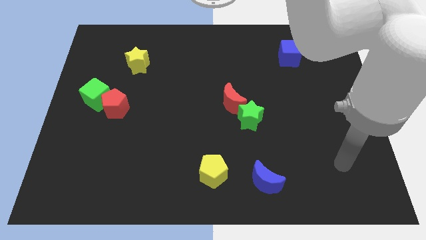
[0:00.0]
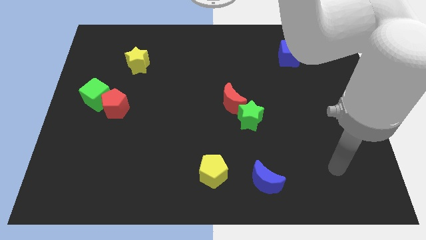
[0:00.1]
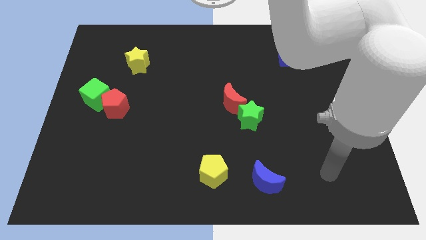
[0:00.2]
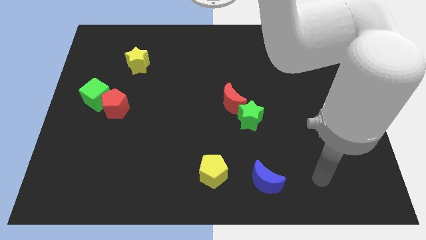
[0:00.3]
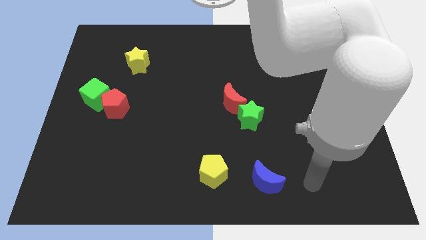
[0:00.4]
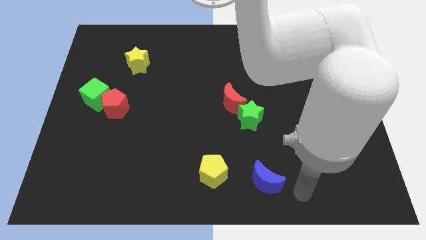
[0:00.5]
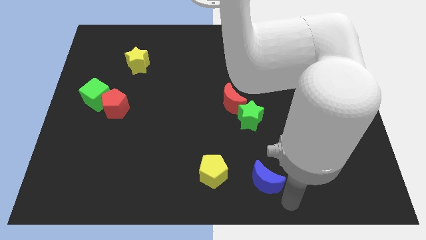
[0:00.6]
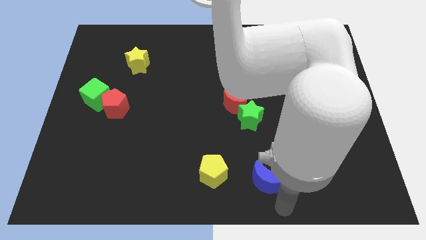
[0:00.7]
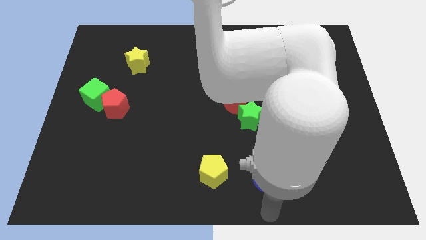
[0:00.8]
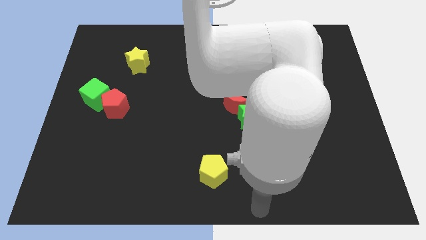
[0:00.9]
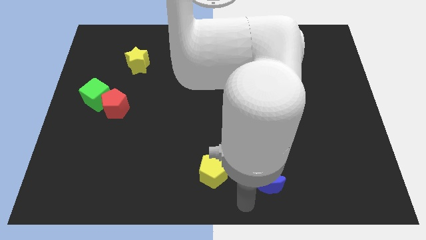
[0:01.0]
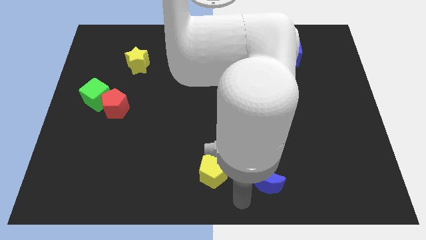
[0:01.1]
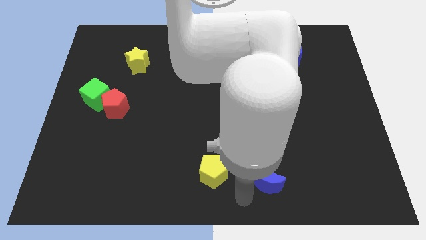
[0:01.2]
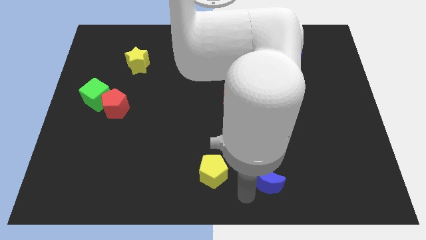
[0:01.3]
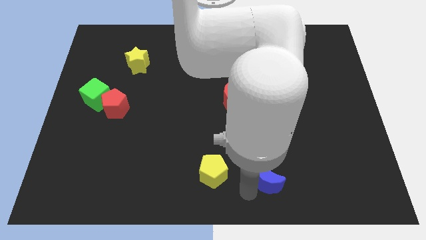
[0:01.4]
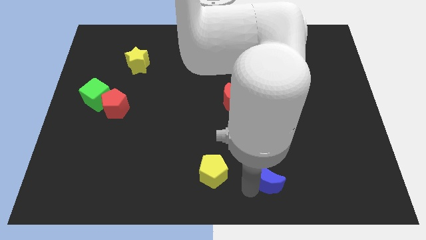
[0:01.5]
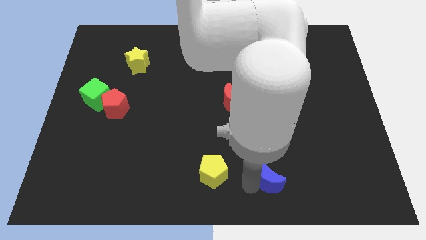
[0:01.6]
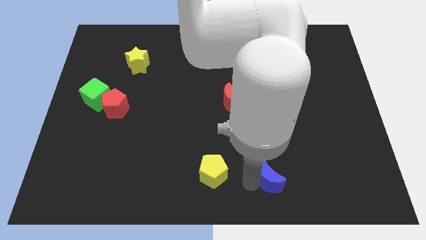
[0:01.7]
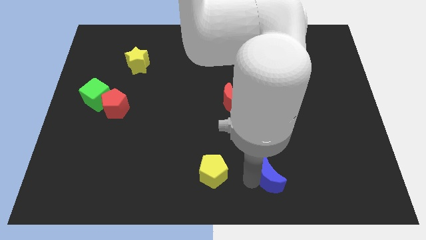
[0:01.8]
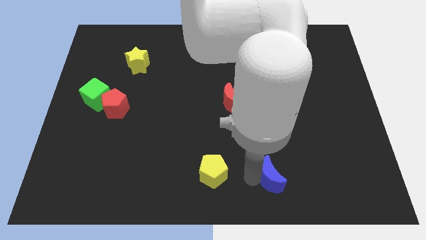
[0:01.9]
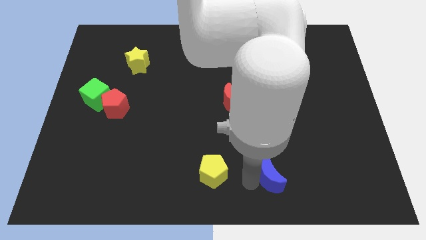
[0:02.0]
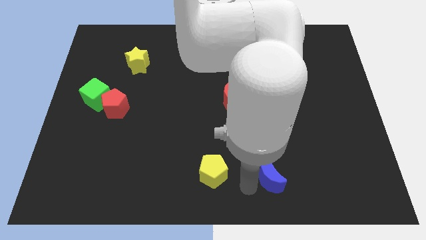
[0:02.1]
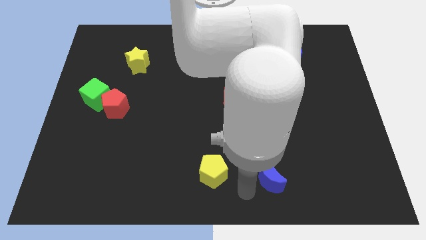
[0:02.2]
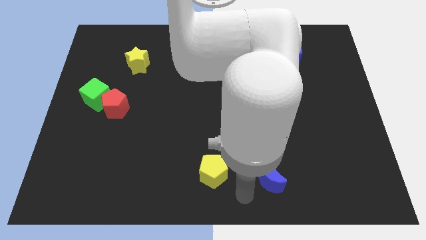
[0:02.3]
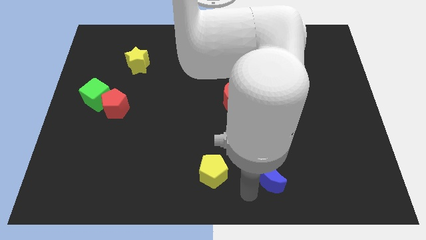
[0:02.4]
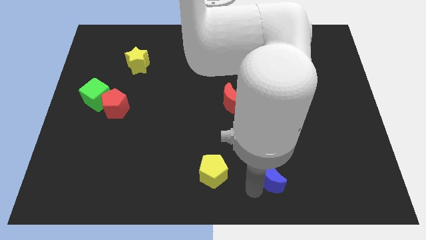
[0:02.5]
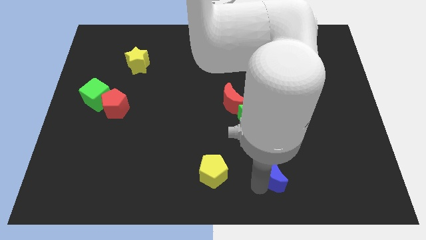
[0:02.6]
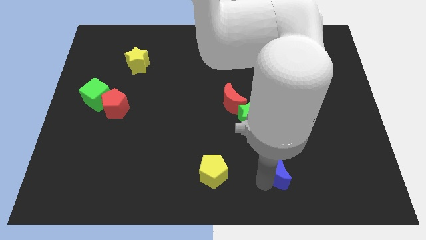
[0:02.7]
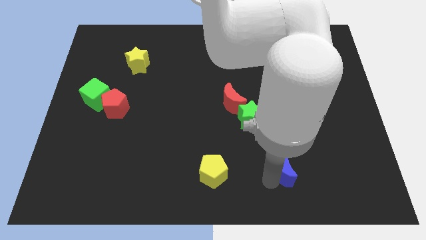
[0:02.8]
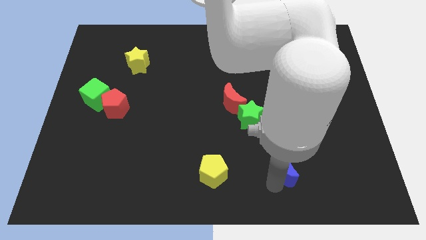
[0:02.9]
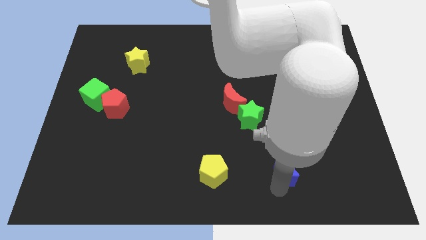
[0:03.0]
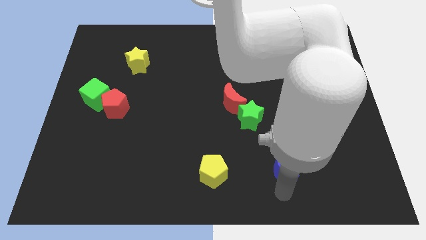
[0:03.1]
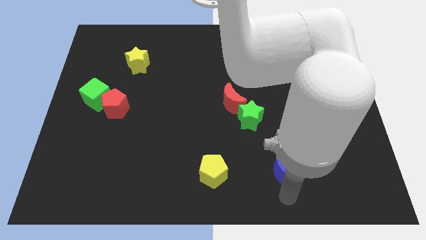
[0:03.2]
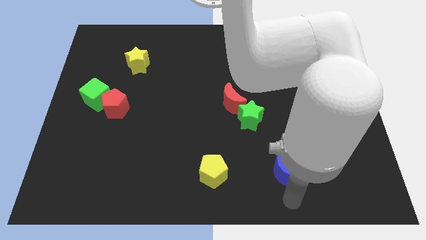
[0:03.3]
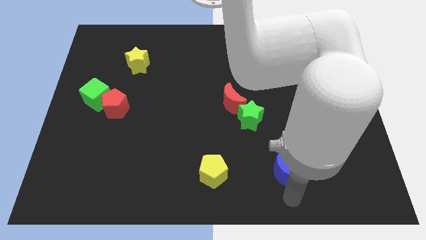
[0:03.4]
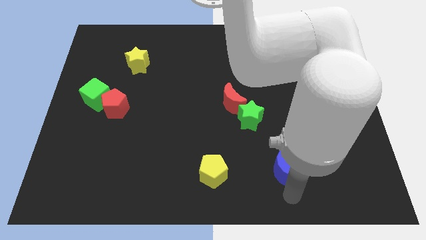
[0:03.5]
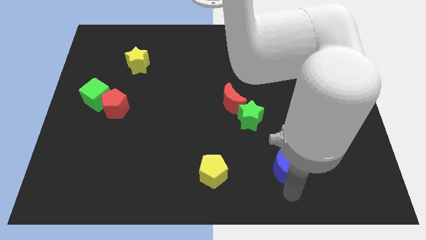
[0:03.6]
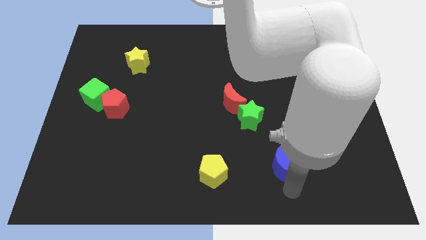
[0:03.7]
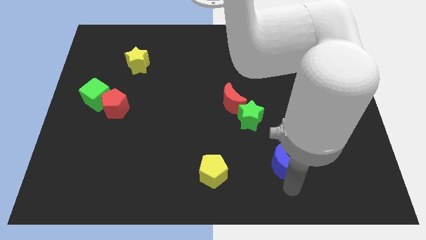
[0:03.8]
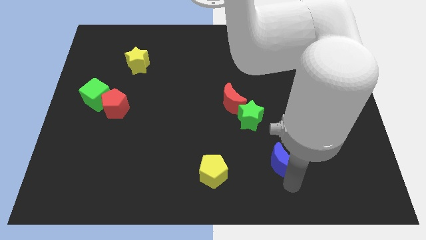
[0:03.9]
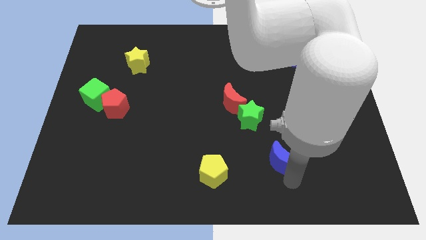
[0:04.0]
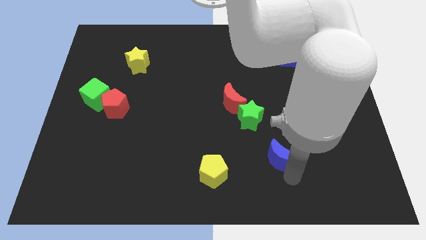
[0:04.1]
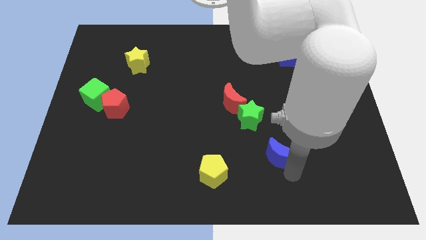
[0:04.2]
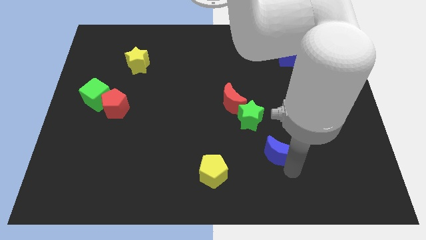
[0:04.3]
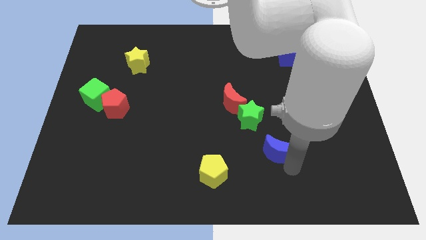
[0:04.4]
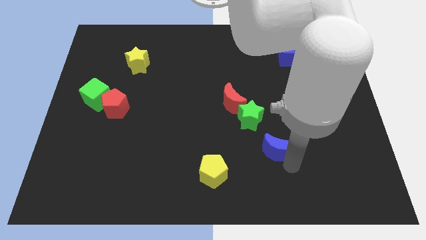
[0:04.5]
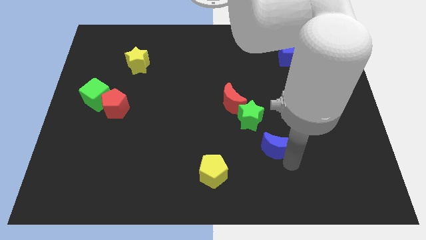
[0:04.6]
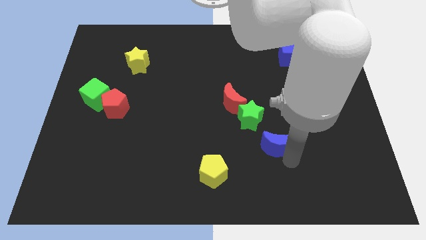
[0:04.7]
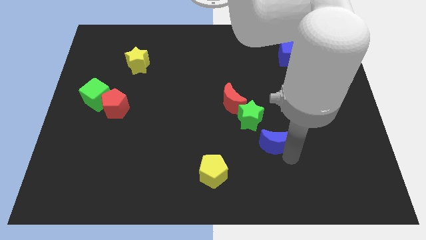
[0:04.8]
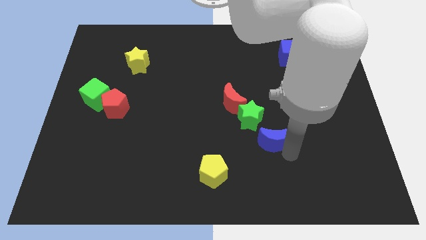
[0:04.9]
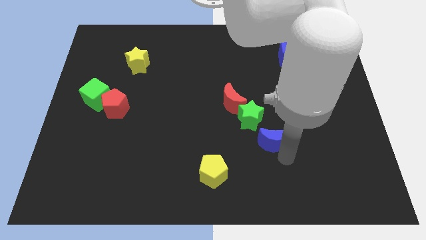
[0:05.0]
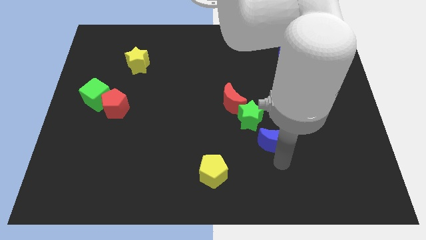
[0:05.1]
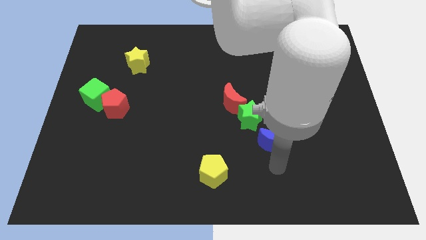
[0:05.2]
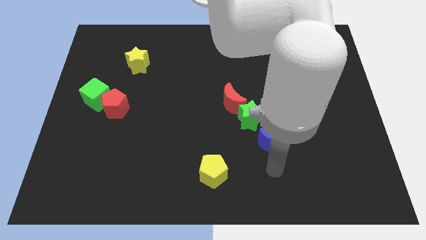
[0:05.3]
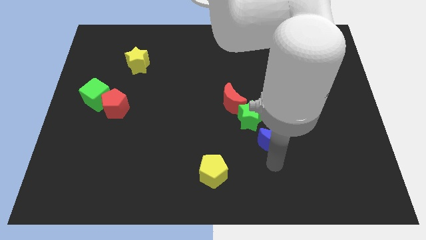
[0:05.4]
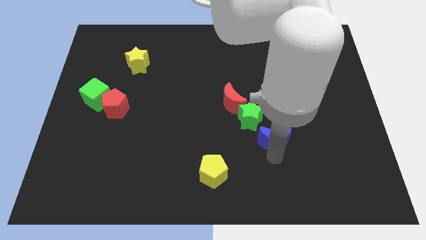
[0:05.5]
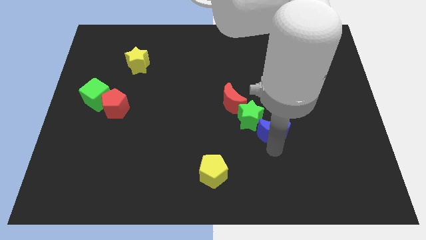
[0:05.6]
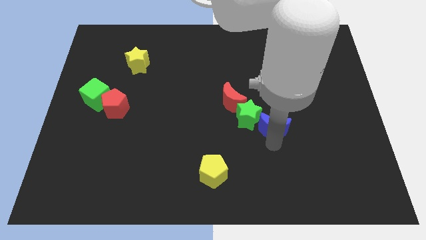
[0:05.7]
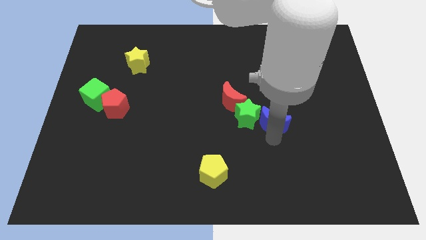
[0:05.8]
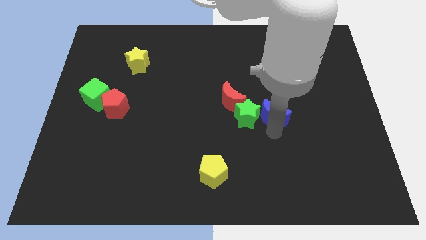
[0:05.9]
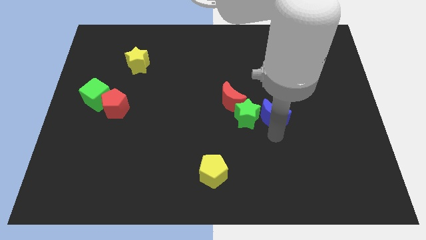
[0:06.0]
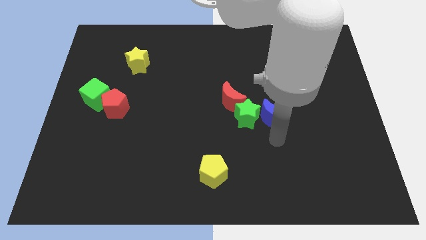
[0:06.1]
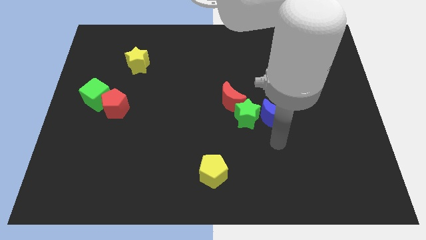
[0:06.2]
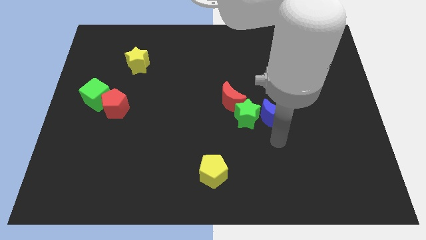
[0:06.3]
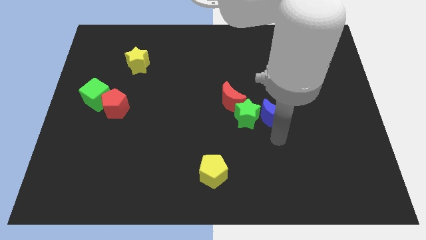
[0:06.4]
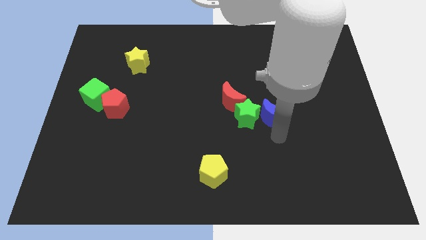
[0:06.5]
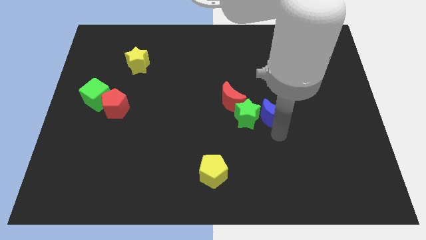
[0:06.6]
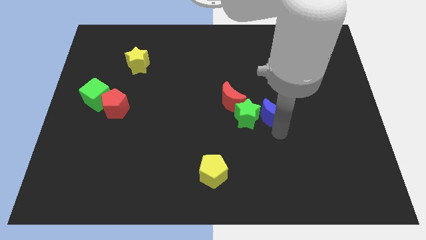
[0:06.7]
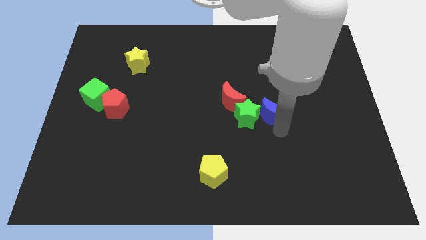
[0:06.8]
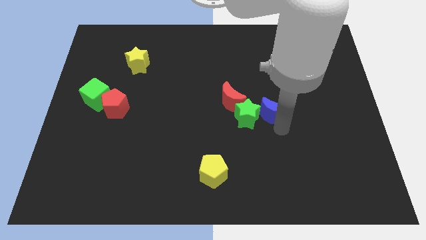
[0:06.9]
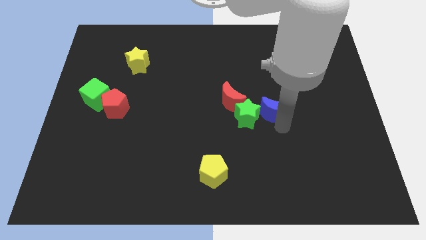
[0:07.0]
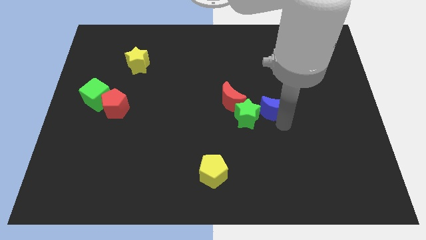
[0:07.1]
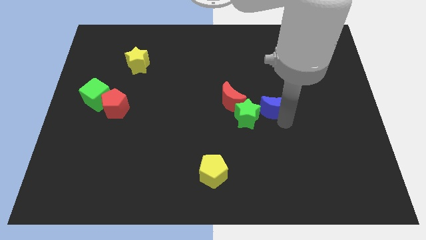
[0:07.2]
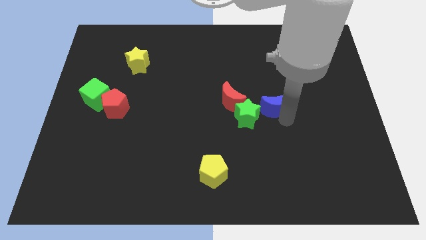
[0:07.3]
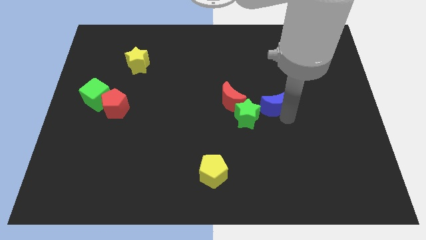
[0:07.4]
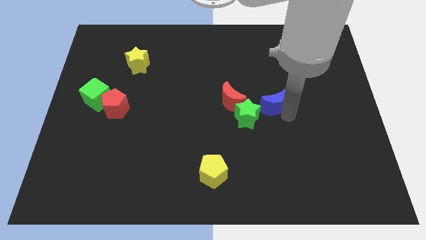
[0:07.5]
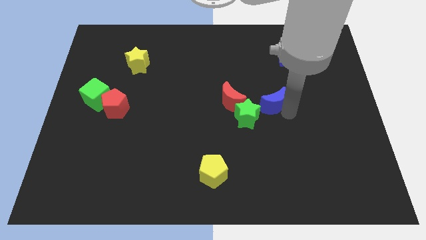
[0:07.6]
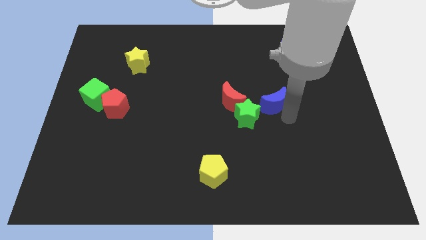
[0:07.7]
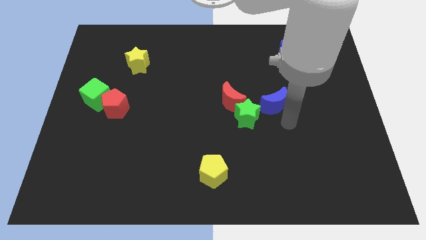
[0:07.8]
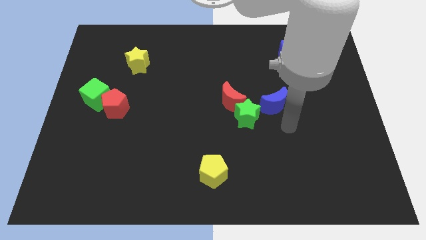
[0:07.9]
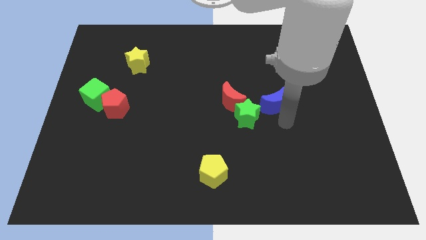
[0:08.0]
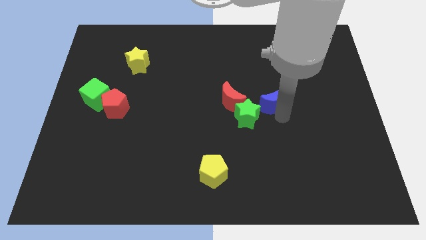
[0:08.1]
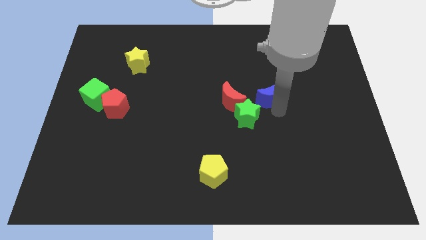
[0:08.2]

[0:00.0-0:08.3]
slide the blue moon upwards
